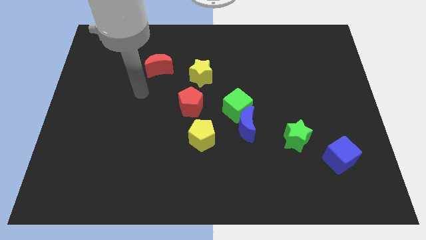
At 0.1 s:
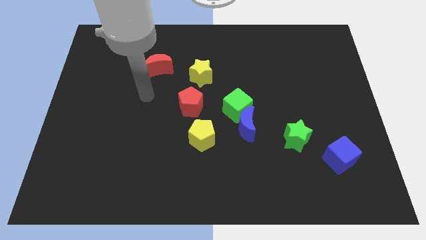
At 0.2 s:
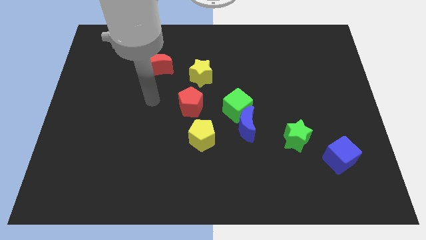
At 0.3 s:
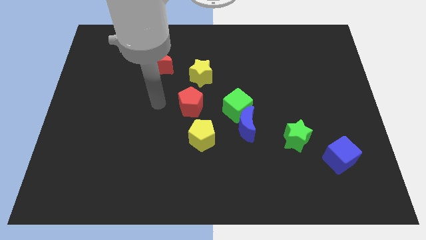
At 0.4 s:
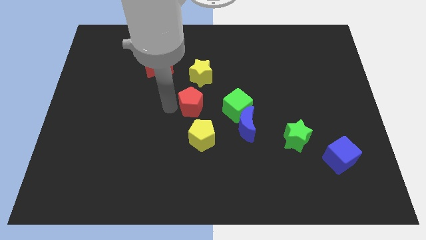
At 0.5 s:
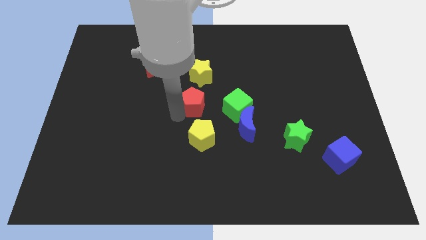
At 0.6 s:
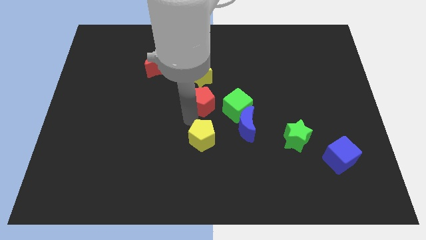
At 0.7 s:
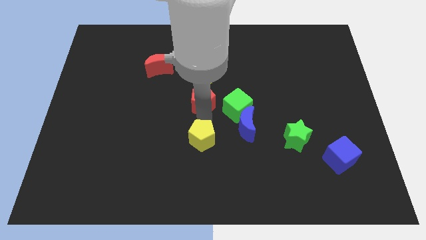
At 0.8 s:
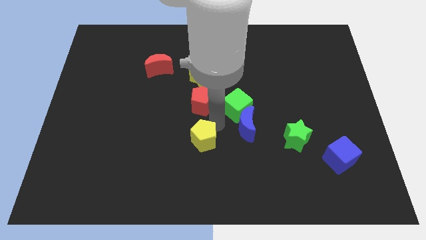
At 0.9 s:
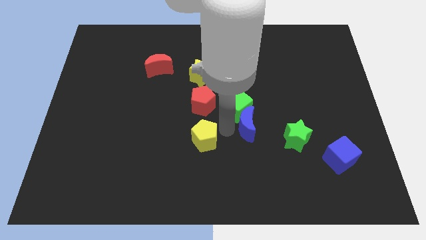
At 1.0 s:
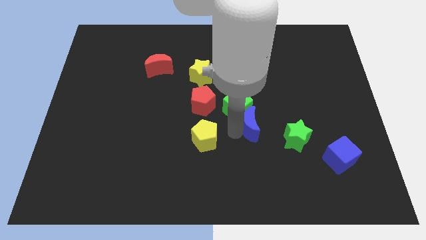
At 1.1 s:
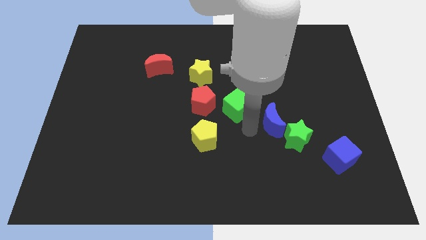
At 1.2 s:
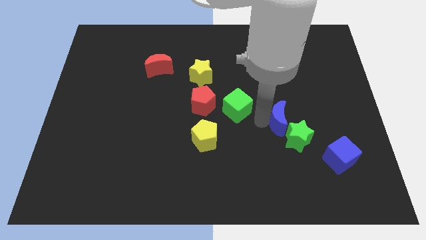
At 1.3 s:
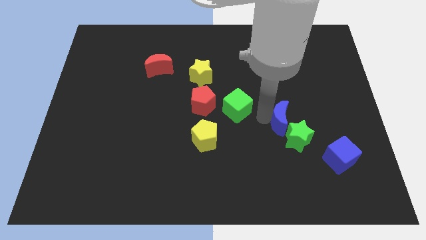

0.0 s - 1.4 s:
pull the green cube apart from the blue moon

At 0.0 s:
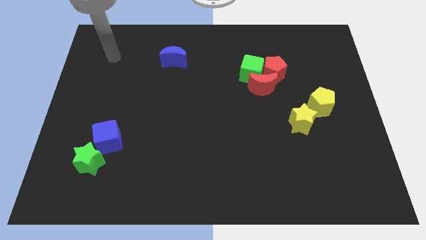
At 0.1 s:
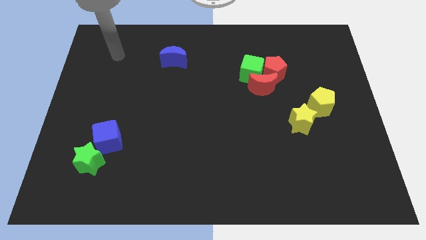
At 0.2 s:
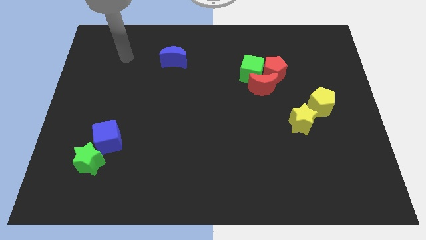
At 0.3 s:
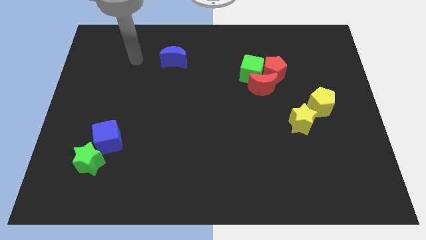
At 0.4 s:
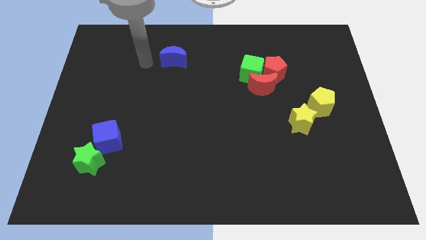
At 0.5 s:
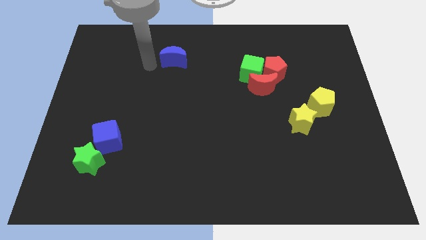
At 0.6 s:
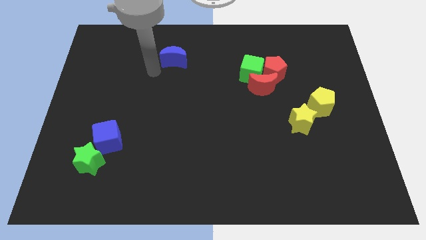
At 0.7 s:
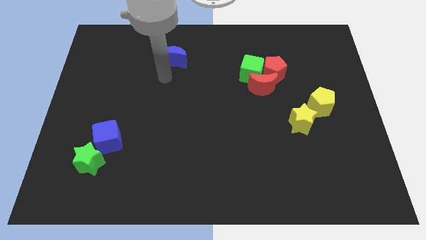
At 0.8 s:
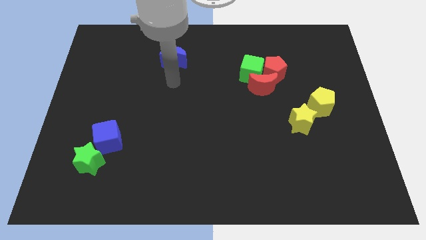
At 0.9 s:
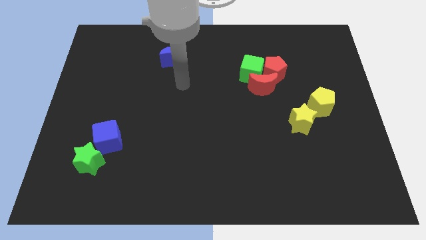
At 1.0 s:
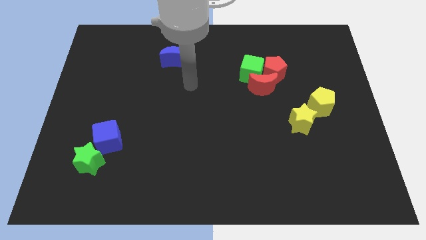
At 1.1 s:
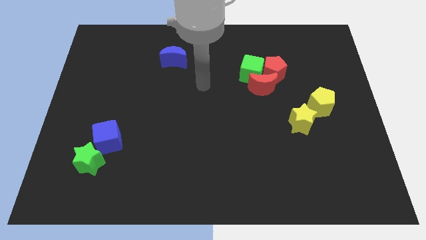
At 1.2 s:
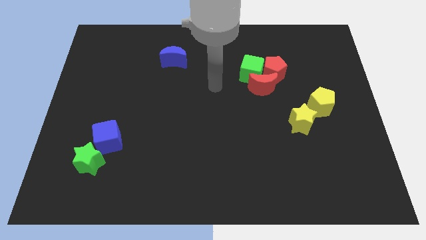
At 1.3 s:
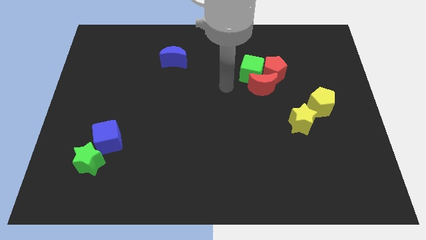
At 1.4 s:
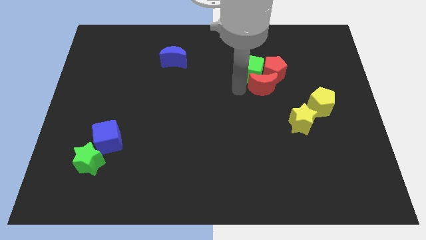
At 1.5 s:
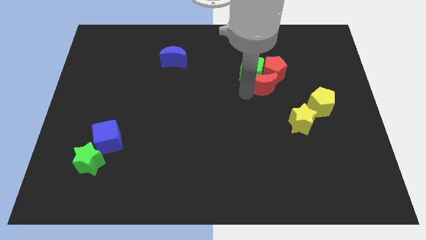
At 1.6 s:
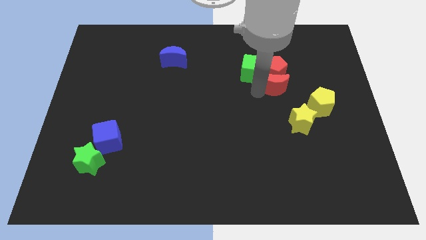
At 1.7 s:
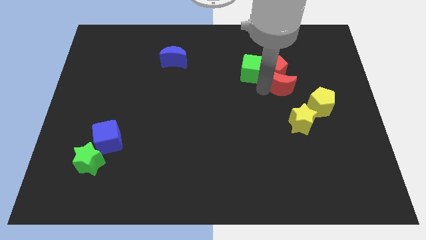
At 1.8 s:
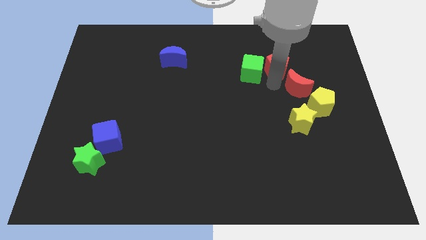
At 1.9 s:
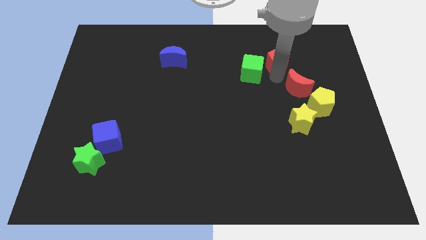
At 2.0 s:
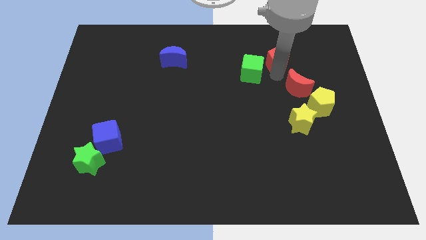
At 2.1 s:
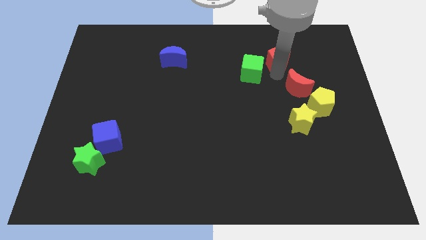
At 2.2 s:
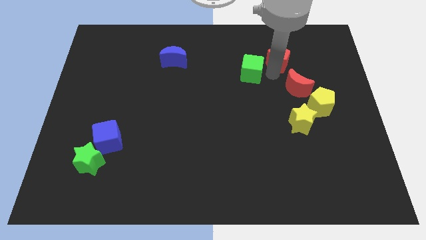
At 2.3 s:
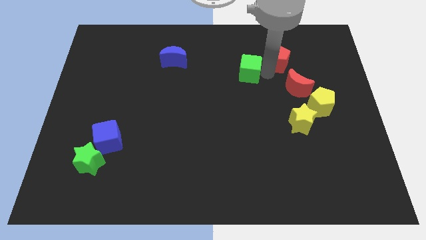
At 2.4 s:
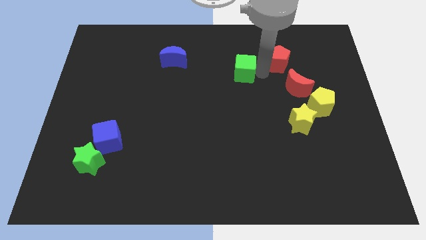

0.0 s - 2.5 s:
separate the green cube from the red pentagon and red moon

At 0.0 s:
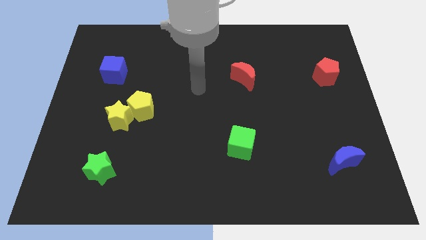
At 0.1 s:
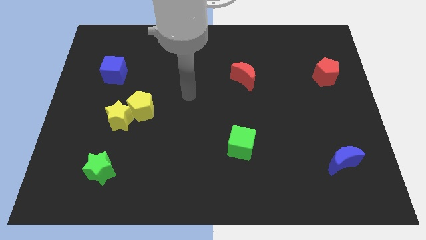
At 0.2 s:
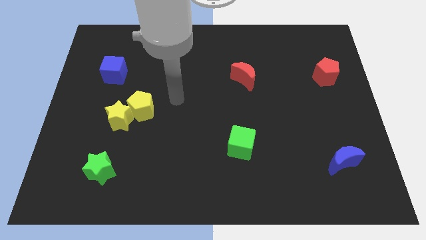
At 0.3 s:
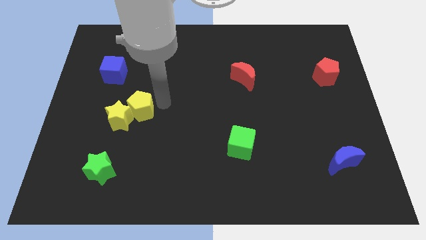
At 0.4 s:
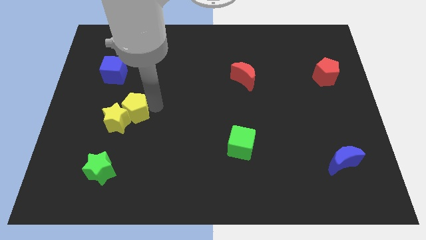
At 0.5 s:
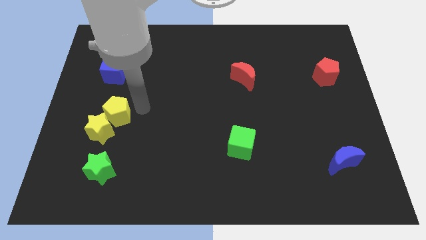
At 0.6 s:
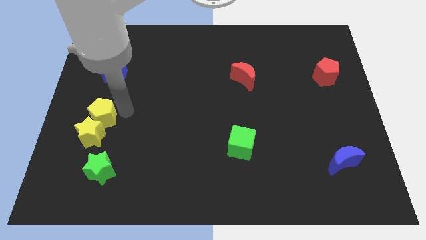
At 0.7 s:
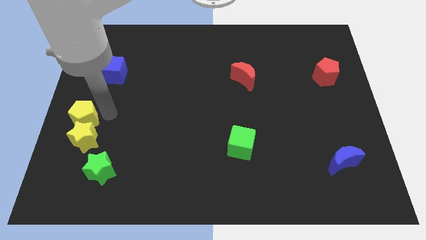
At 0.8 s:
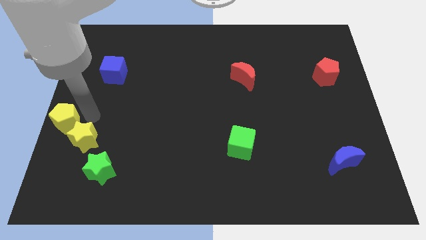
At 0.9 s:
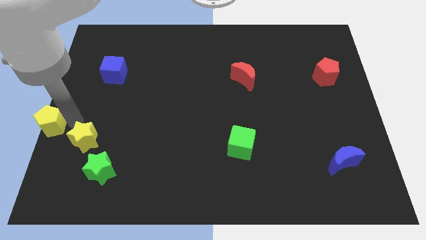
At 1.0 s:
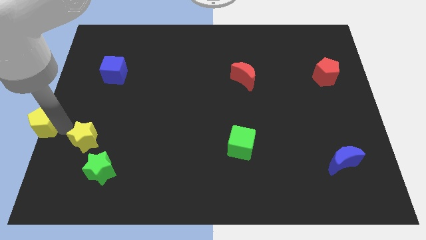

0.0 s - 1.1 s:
pull the yellow star apart from the yellow pentagon

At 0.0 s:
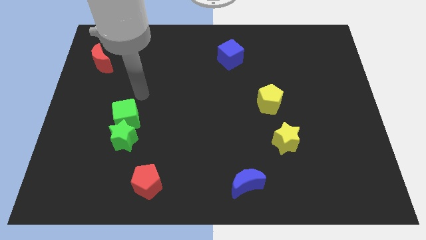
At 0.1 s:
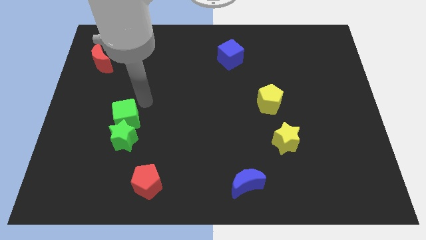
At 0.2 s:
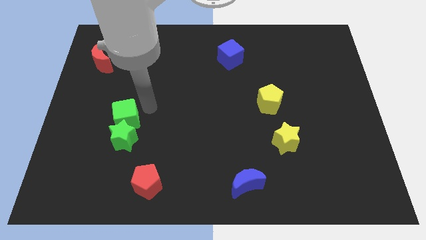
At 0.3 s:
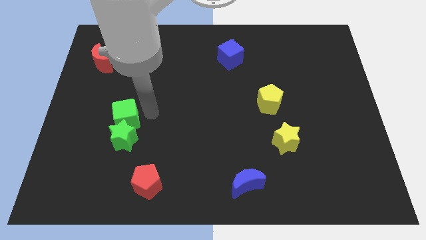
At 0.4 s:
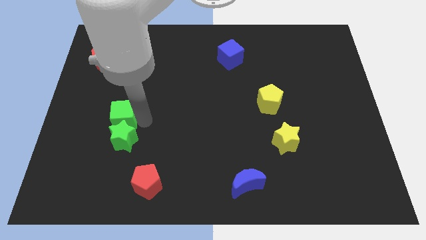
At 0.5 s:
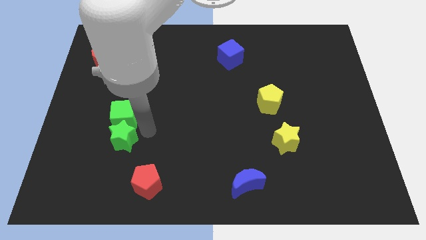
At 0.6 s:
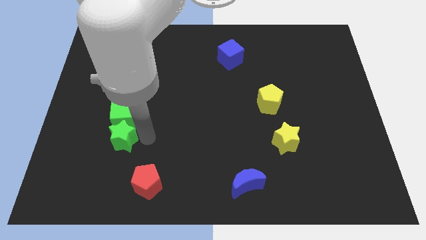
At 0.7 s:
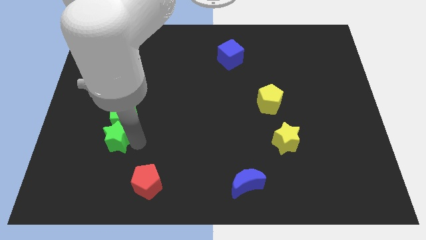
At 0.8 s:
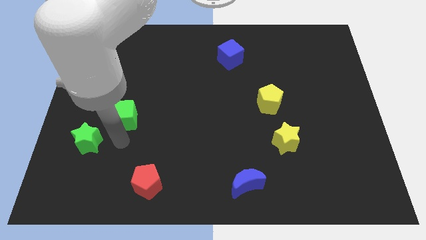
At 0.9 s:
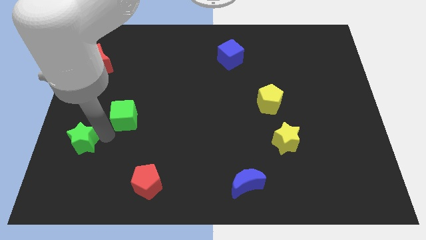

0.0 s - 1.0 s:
move the green cube away from the green star

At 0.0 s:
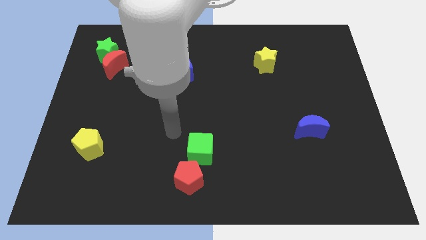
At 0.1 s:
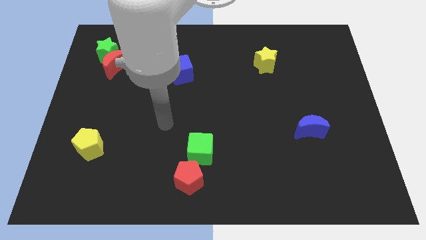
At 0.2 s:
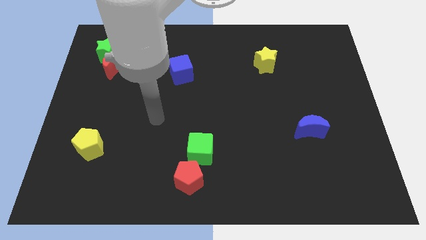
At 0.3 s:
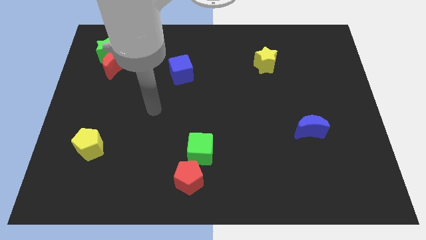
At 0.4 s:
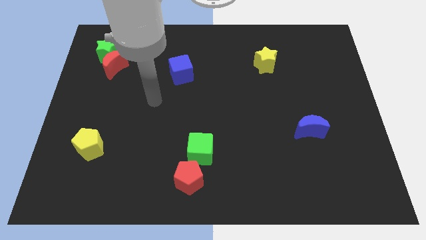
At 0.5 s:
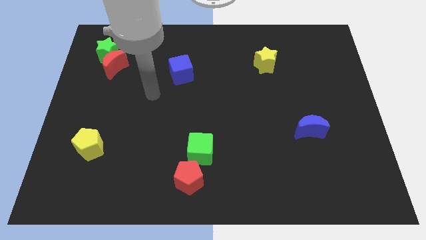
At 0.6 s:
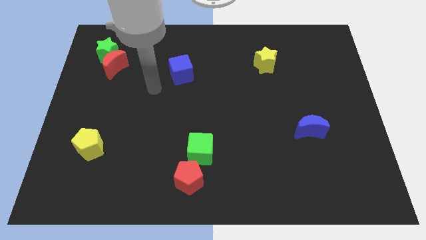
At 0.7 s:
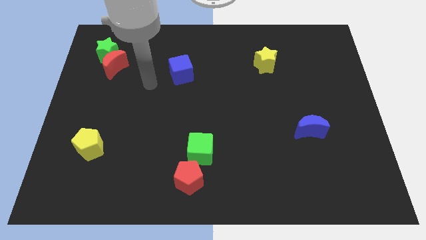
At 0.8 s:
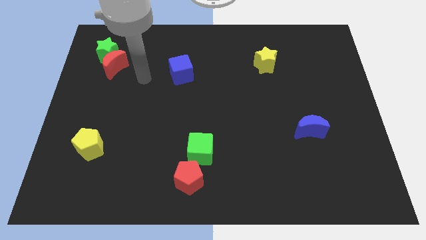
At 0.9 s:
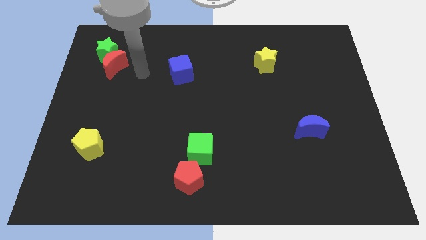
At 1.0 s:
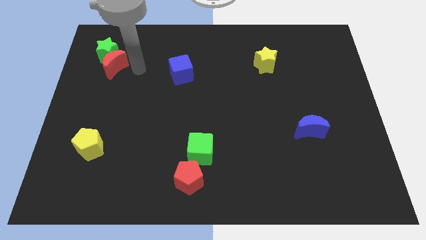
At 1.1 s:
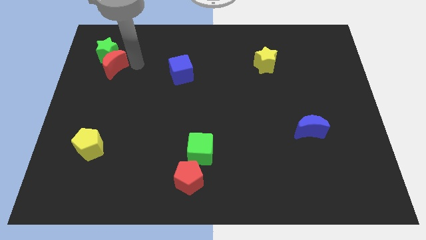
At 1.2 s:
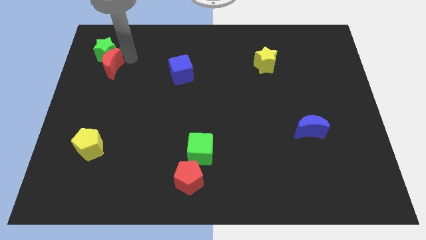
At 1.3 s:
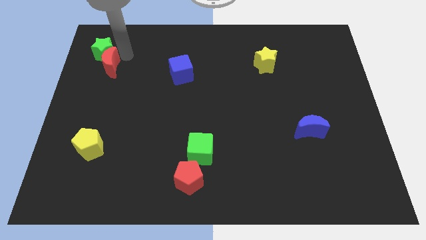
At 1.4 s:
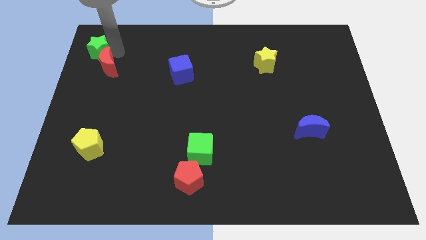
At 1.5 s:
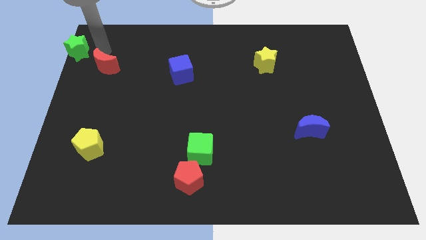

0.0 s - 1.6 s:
pull the red moon apart from the green star

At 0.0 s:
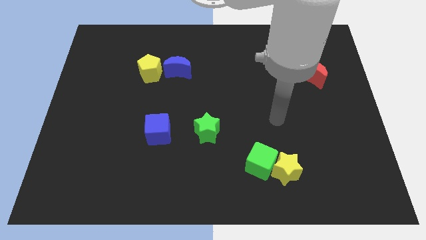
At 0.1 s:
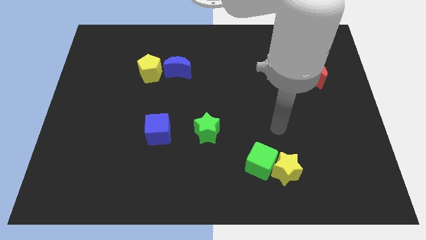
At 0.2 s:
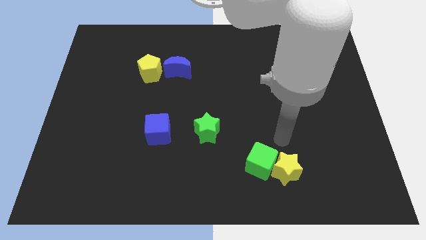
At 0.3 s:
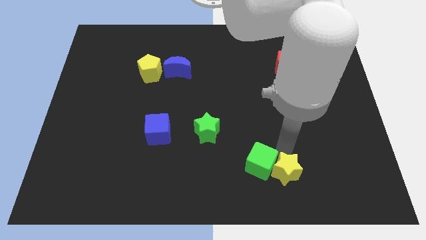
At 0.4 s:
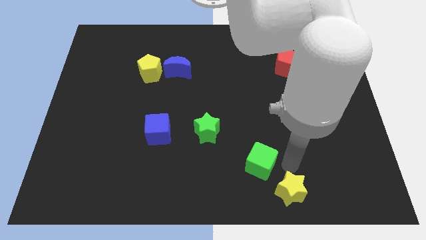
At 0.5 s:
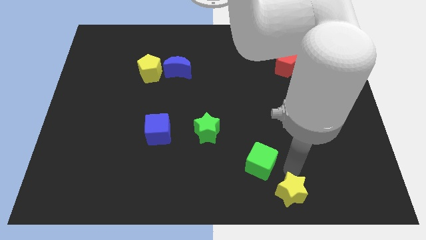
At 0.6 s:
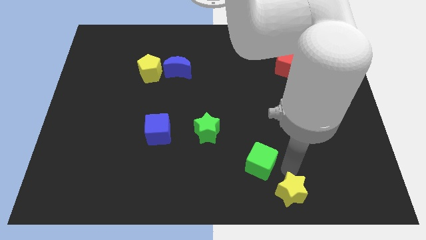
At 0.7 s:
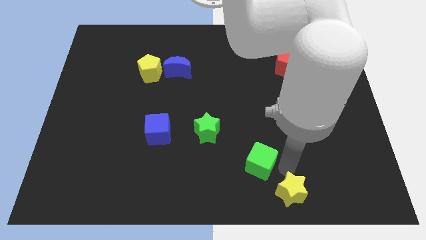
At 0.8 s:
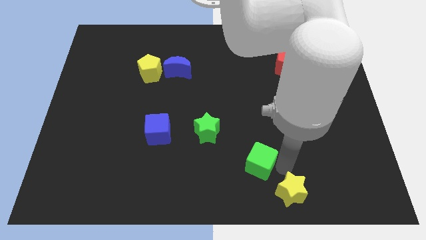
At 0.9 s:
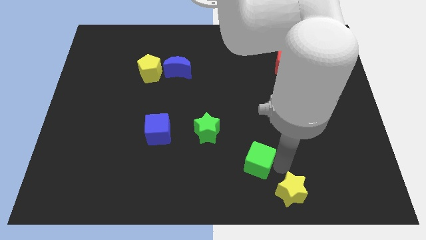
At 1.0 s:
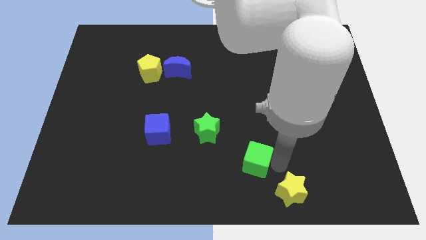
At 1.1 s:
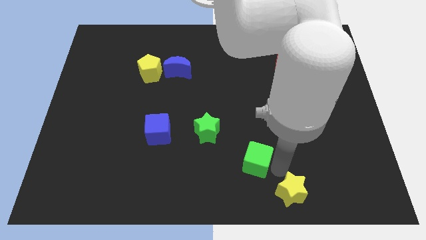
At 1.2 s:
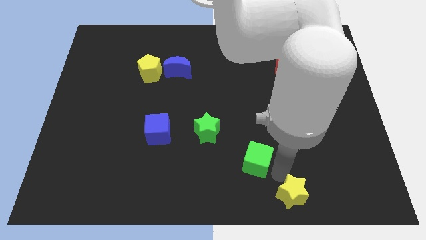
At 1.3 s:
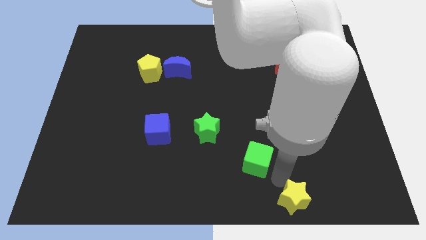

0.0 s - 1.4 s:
move the green cube away from the yellow star

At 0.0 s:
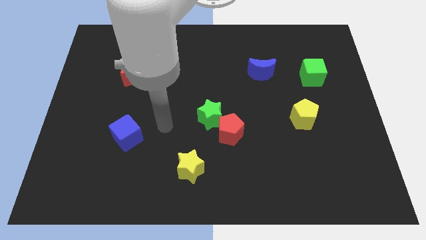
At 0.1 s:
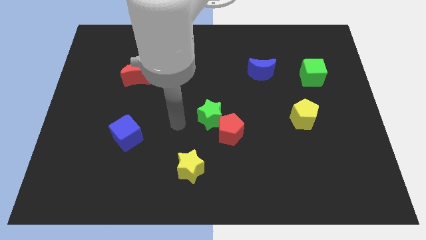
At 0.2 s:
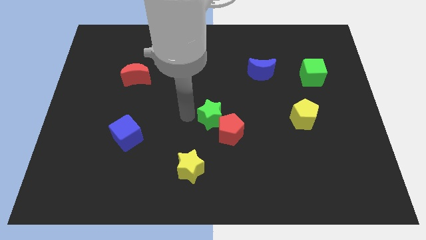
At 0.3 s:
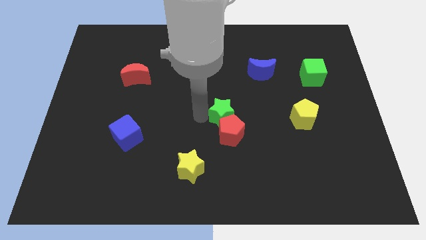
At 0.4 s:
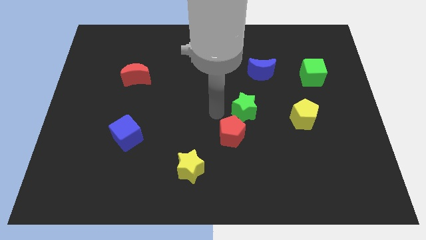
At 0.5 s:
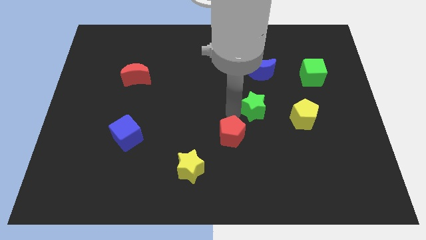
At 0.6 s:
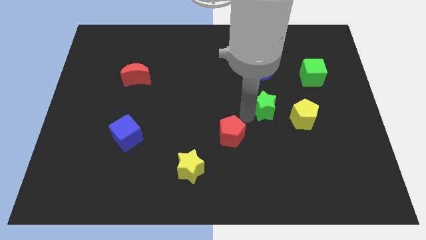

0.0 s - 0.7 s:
move the red pentagon away from the green star
